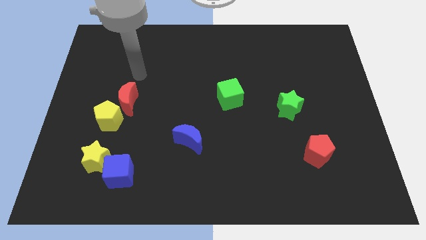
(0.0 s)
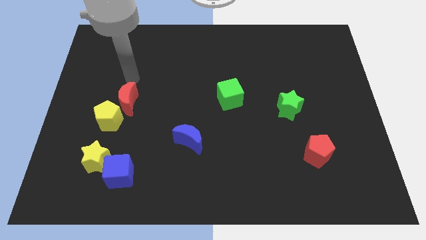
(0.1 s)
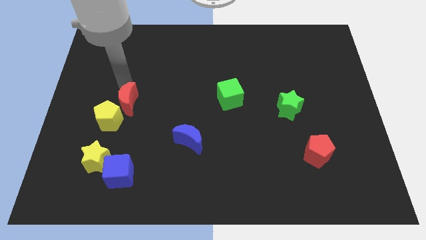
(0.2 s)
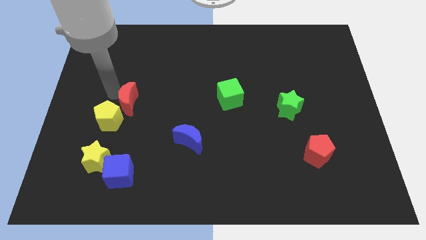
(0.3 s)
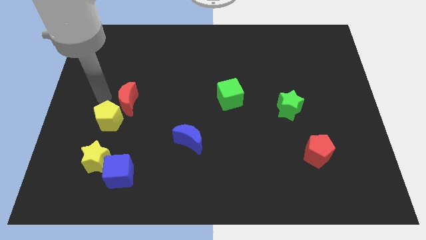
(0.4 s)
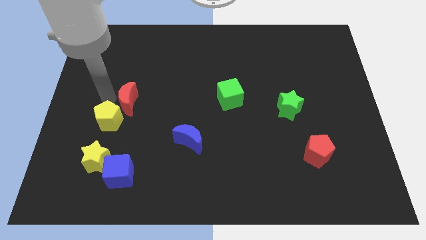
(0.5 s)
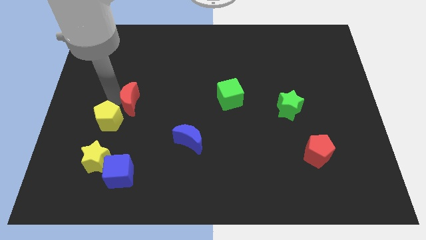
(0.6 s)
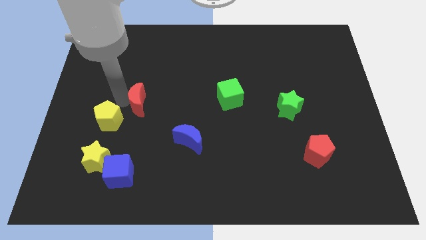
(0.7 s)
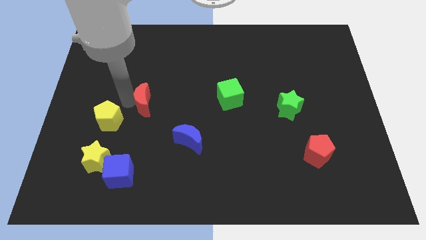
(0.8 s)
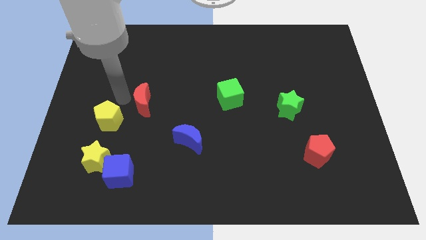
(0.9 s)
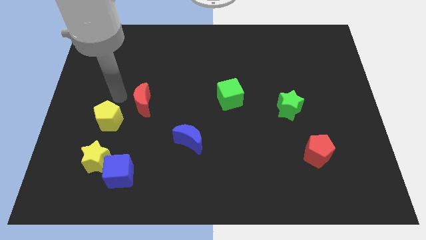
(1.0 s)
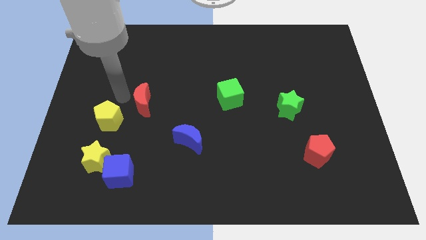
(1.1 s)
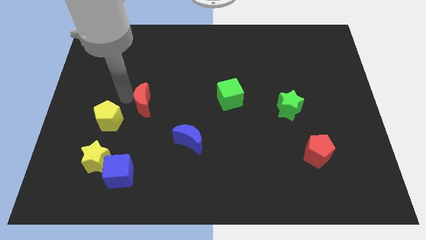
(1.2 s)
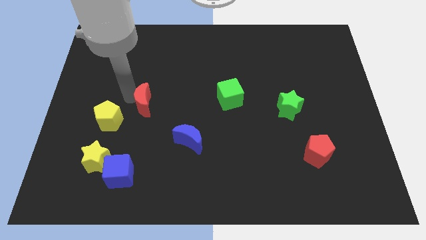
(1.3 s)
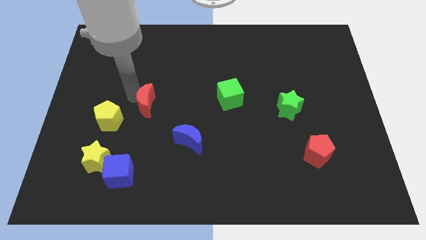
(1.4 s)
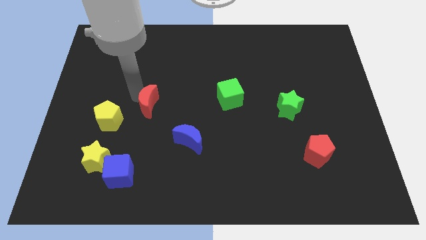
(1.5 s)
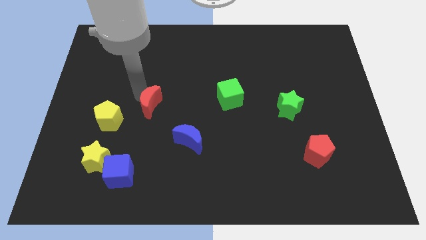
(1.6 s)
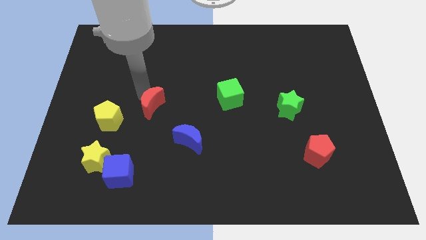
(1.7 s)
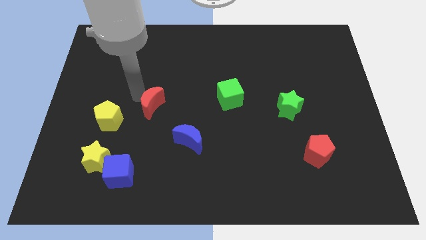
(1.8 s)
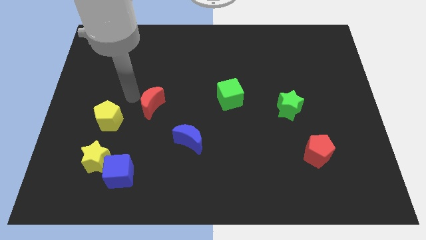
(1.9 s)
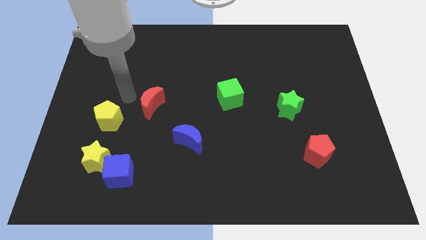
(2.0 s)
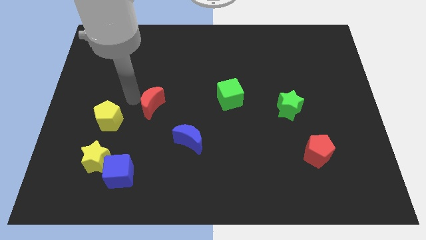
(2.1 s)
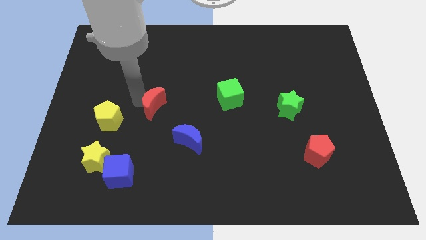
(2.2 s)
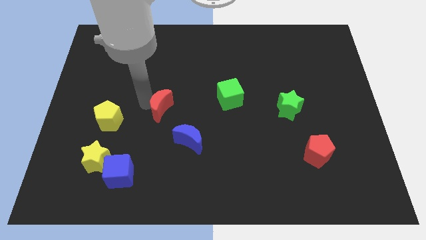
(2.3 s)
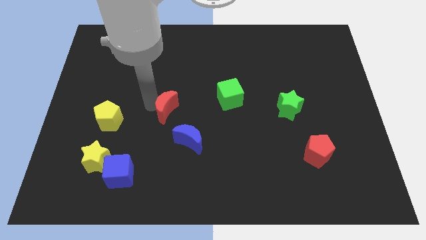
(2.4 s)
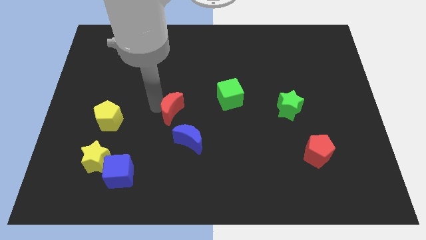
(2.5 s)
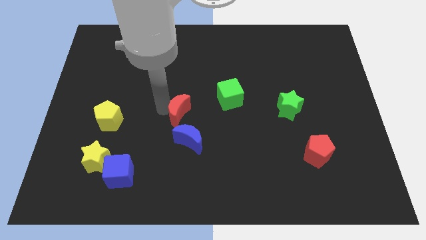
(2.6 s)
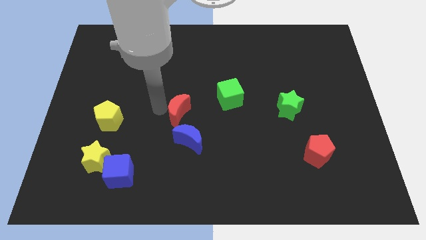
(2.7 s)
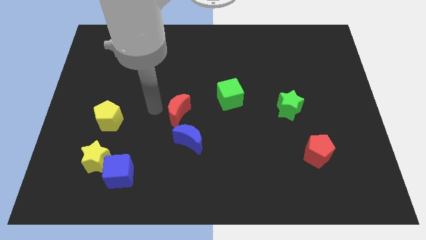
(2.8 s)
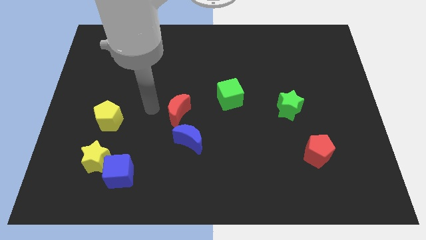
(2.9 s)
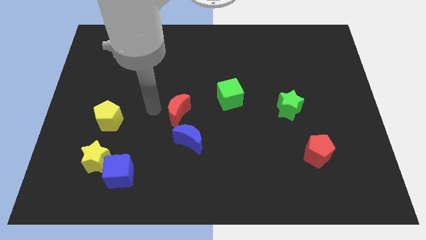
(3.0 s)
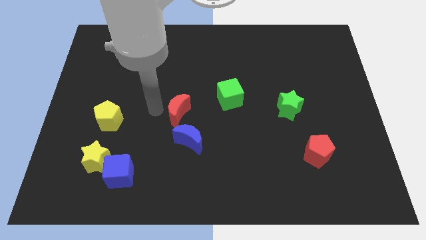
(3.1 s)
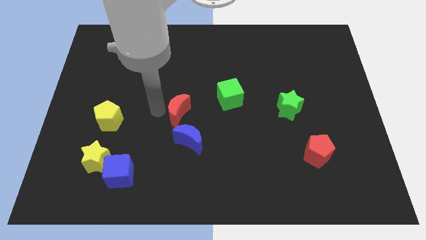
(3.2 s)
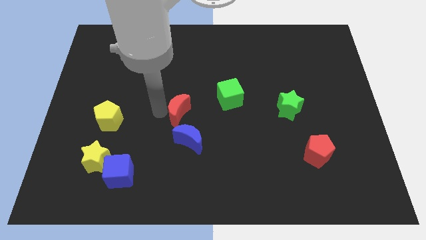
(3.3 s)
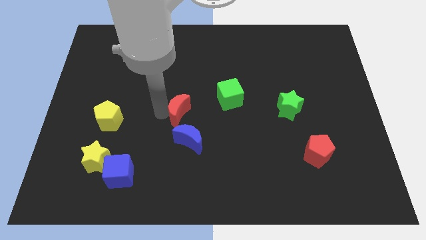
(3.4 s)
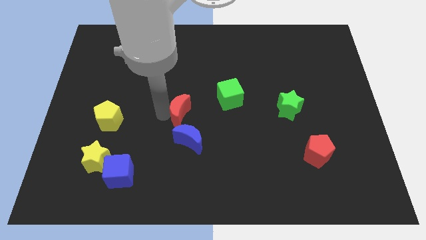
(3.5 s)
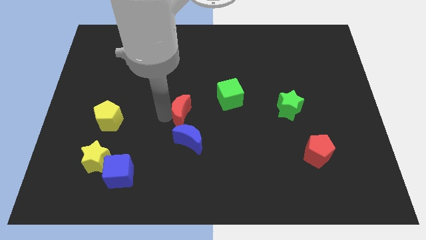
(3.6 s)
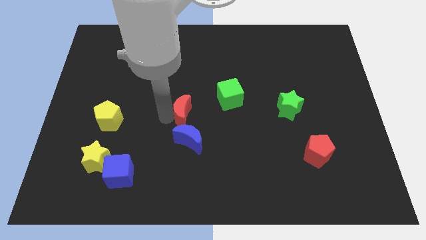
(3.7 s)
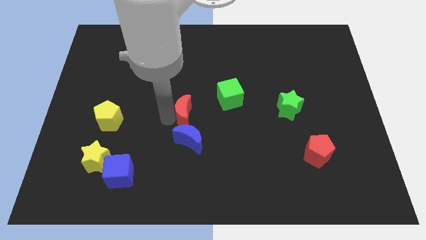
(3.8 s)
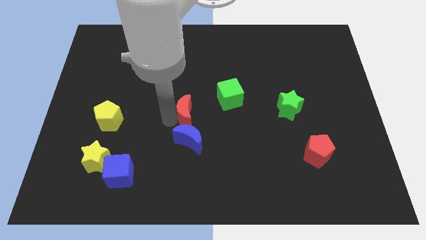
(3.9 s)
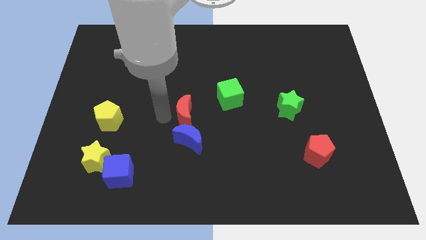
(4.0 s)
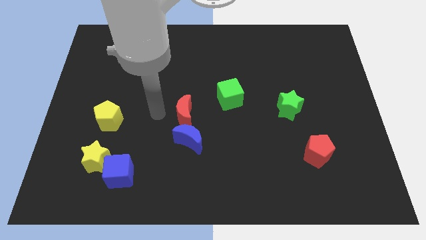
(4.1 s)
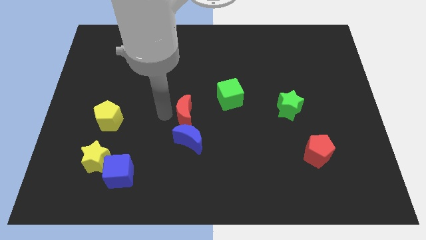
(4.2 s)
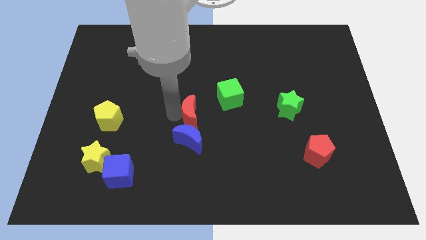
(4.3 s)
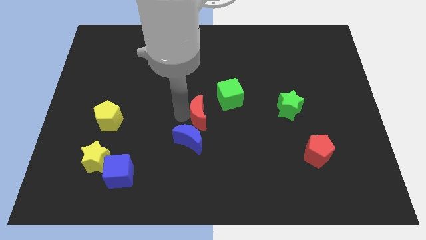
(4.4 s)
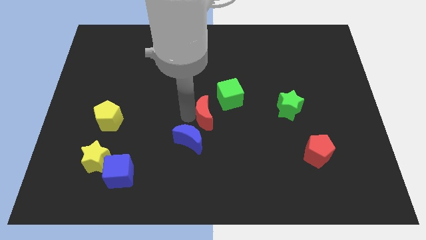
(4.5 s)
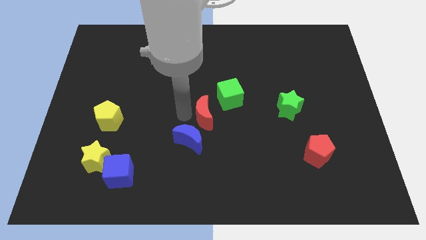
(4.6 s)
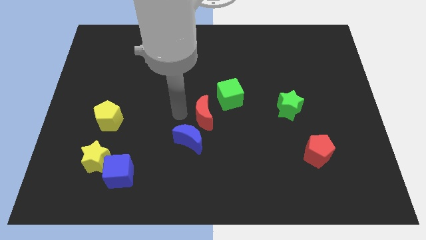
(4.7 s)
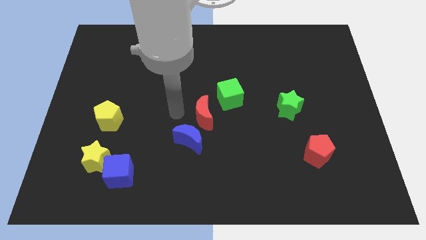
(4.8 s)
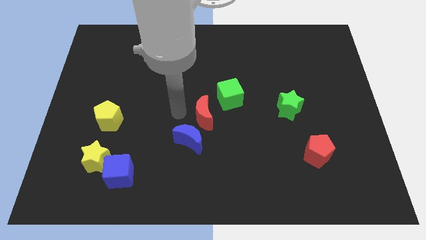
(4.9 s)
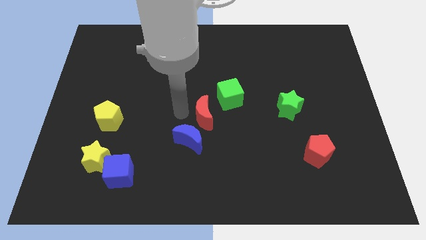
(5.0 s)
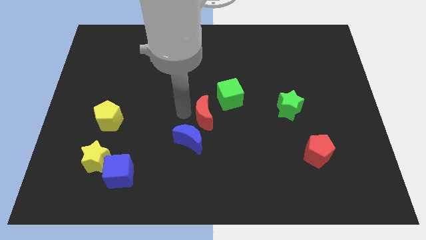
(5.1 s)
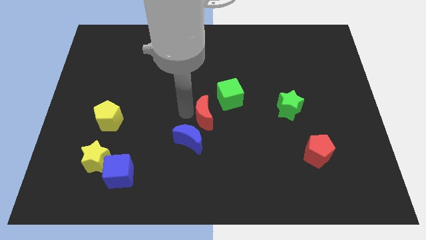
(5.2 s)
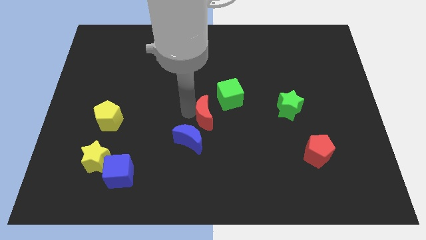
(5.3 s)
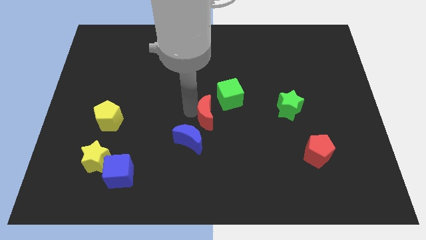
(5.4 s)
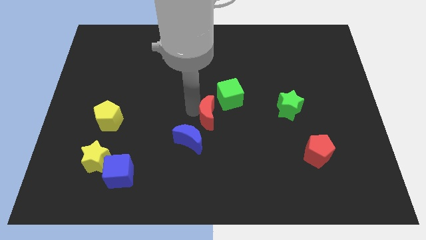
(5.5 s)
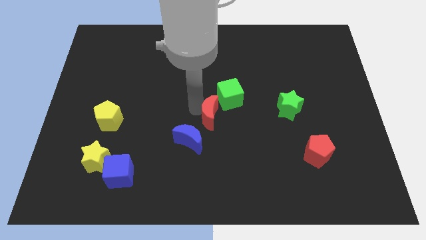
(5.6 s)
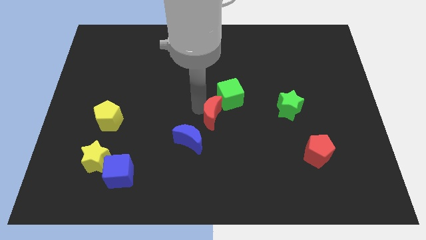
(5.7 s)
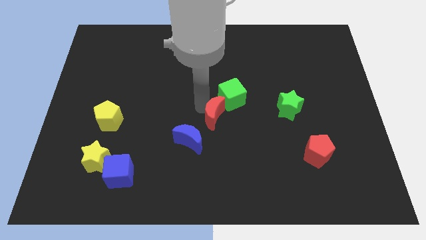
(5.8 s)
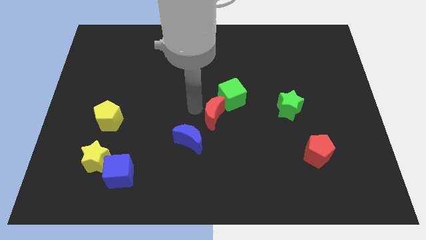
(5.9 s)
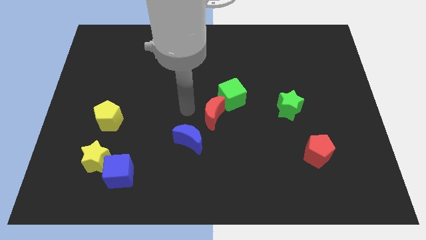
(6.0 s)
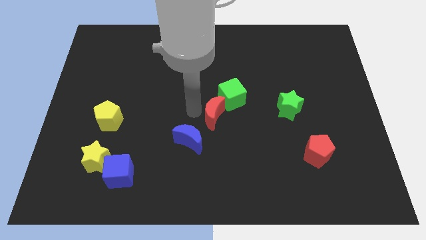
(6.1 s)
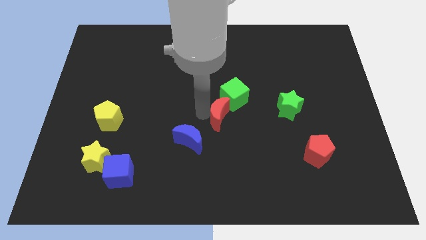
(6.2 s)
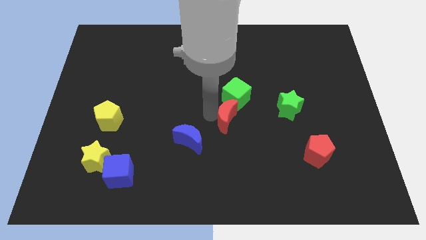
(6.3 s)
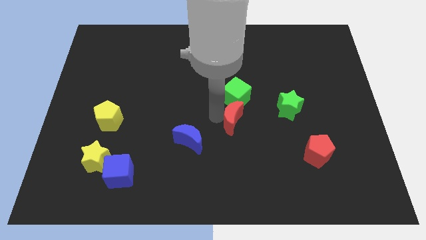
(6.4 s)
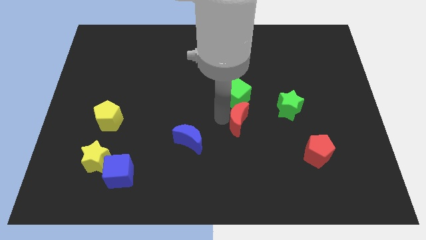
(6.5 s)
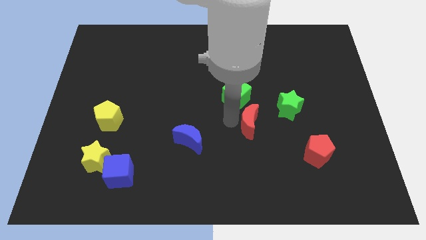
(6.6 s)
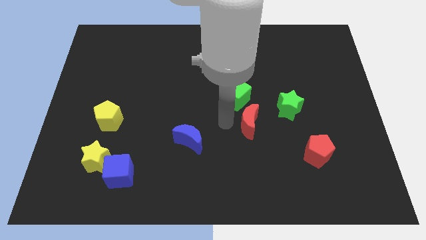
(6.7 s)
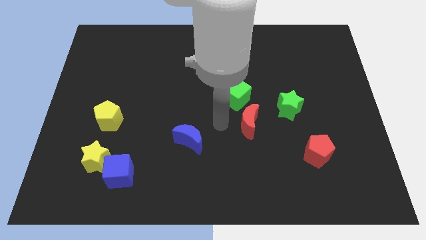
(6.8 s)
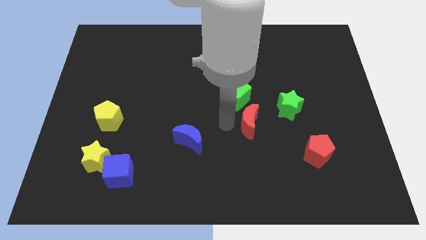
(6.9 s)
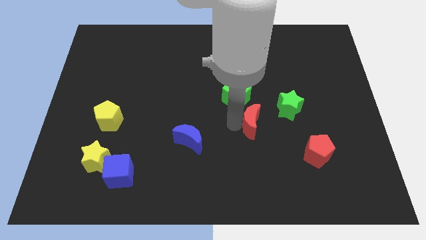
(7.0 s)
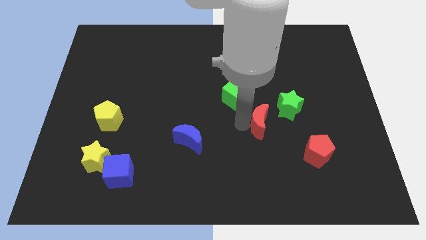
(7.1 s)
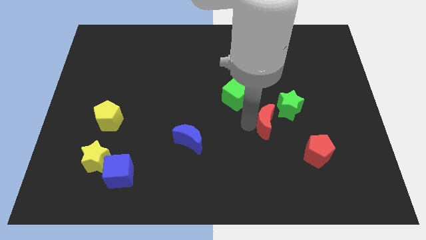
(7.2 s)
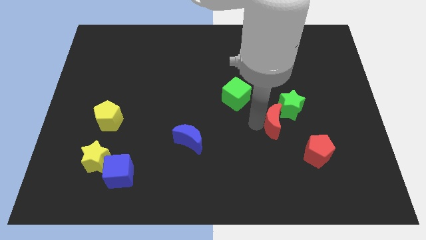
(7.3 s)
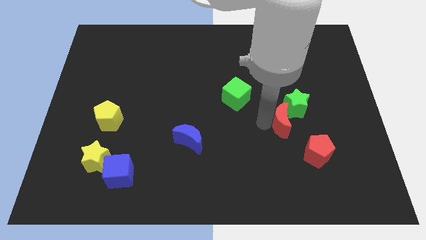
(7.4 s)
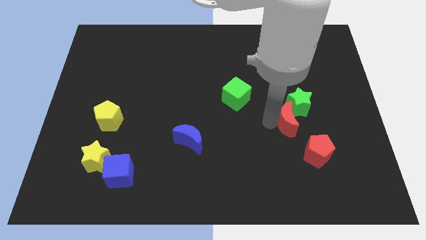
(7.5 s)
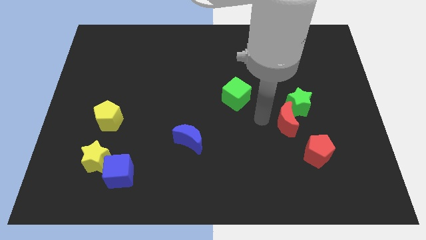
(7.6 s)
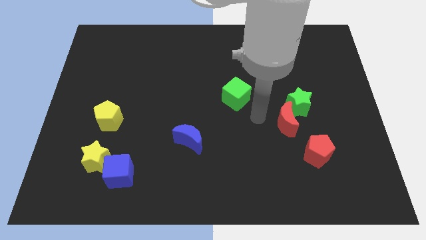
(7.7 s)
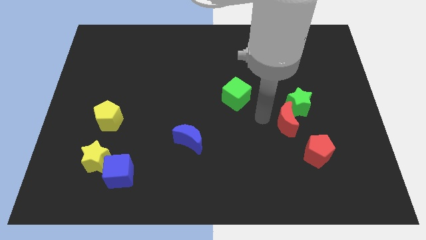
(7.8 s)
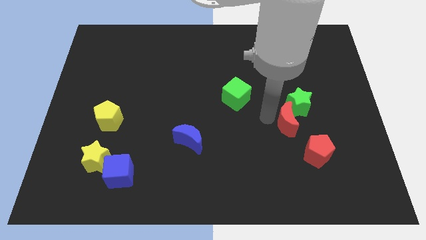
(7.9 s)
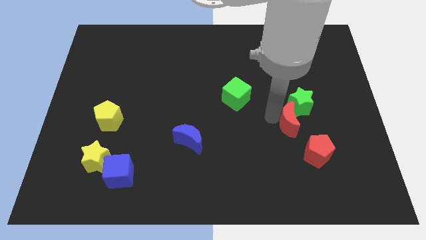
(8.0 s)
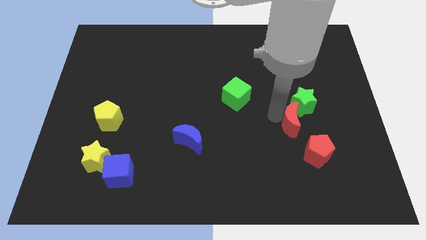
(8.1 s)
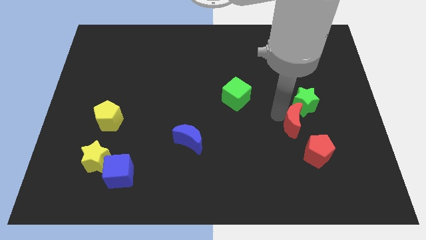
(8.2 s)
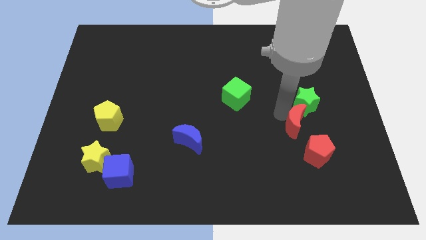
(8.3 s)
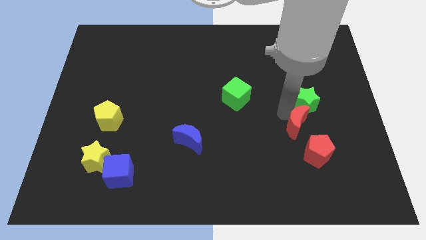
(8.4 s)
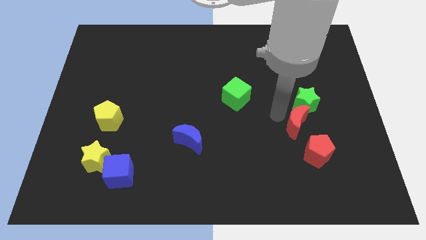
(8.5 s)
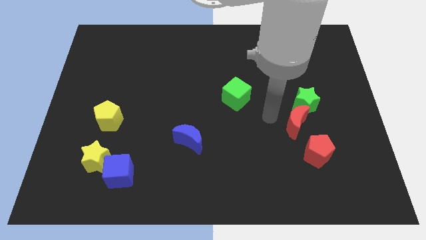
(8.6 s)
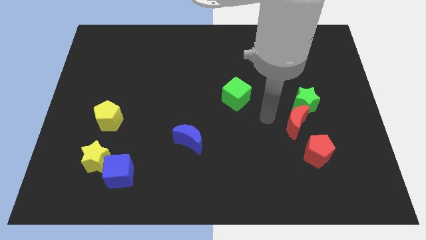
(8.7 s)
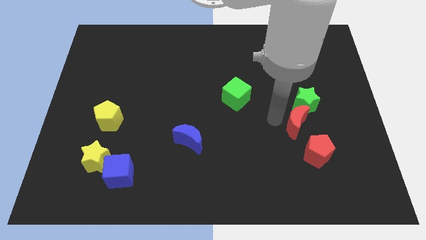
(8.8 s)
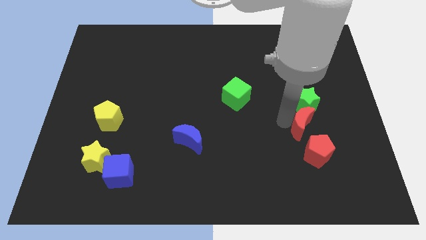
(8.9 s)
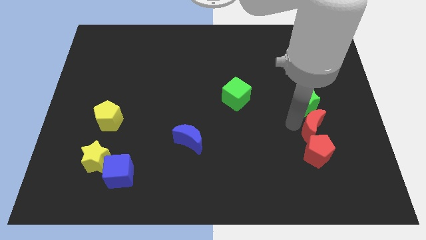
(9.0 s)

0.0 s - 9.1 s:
put the red moon diagonally up and to the right of the red pentagon
